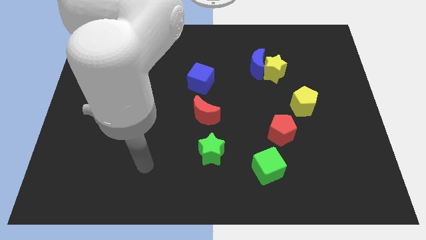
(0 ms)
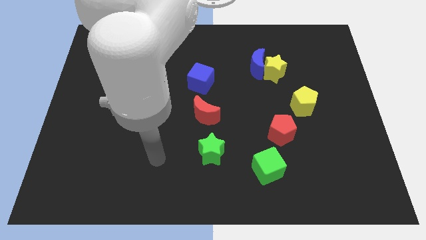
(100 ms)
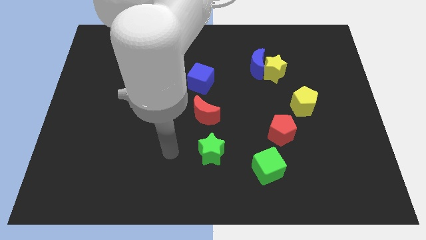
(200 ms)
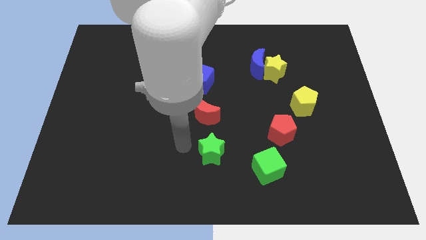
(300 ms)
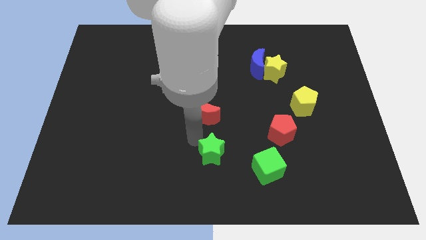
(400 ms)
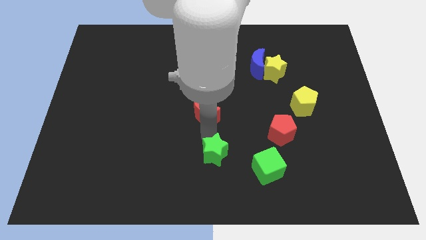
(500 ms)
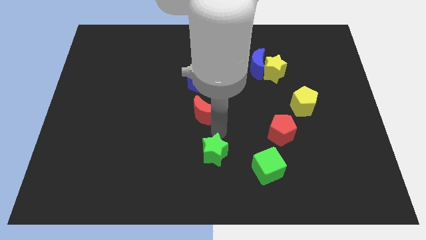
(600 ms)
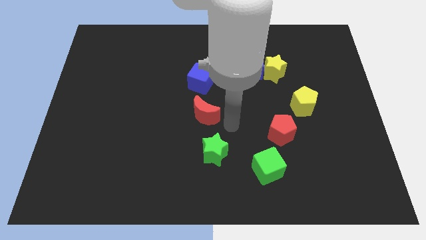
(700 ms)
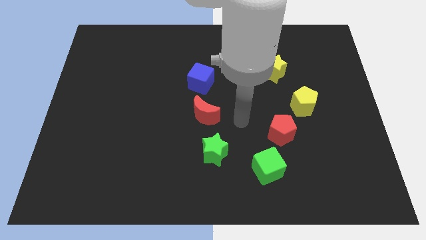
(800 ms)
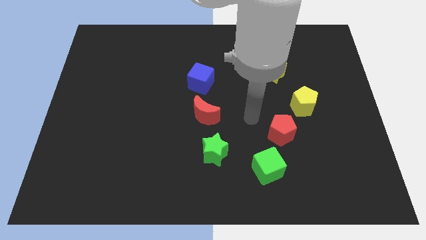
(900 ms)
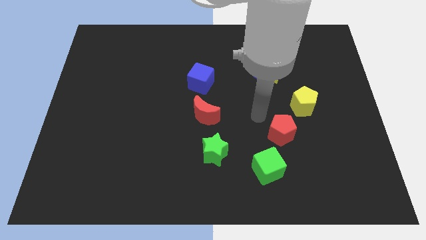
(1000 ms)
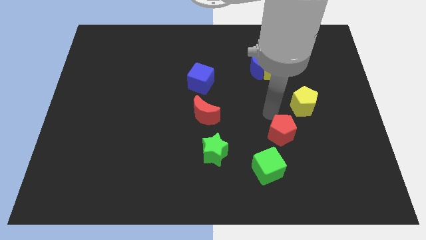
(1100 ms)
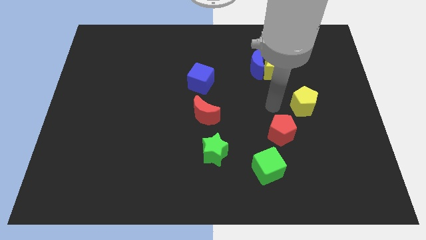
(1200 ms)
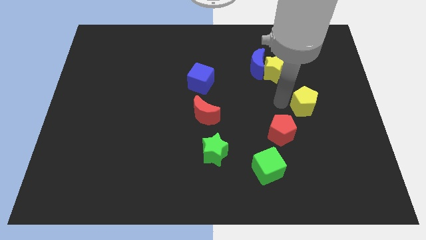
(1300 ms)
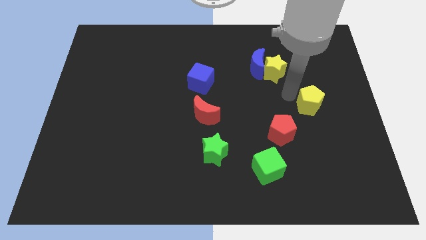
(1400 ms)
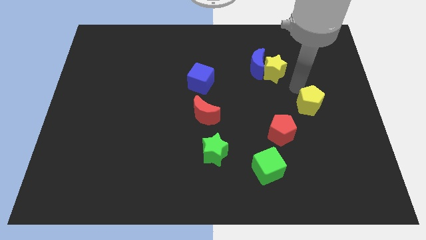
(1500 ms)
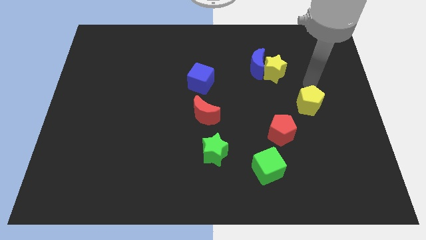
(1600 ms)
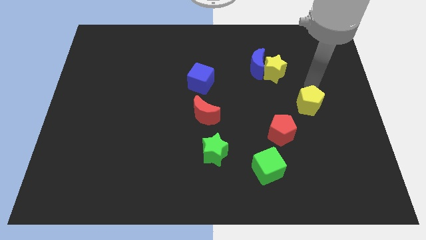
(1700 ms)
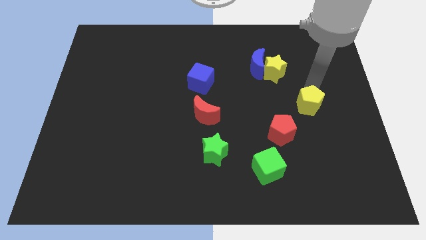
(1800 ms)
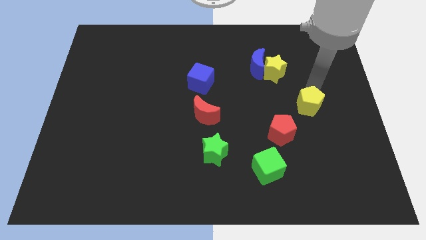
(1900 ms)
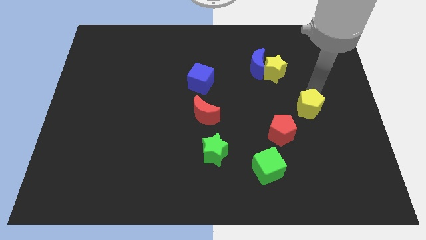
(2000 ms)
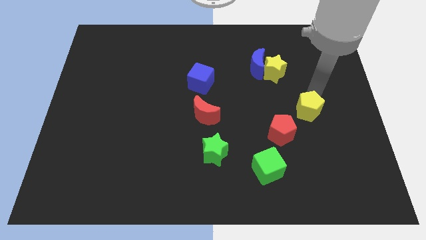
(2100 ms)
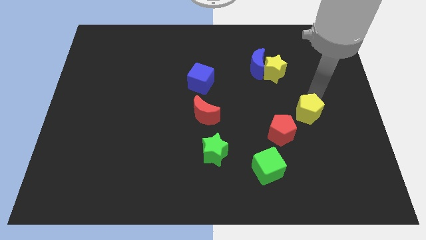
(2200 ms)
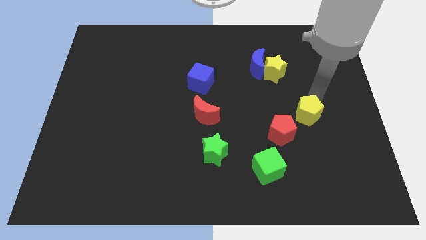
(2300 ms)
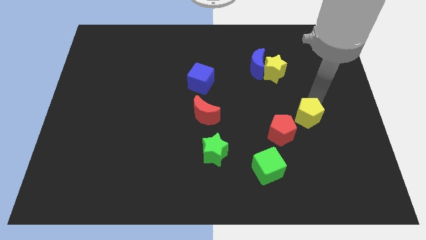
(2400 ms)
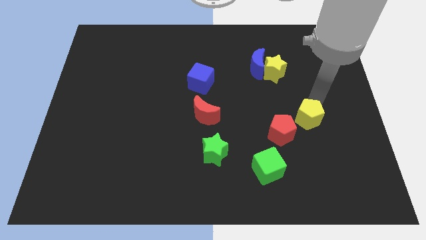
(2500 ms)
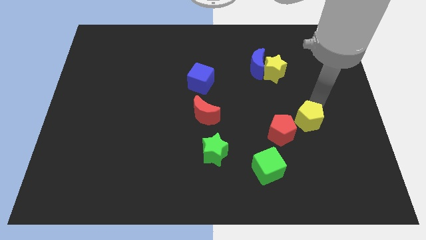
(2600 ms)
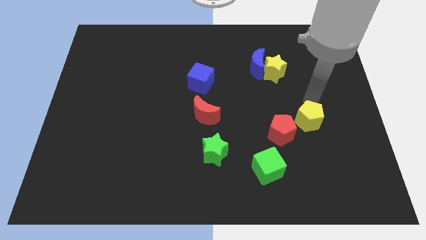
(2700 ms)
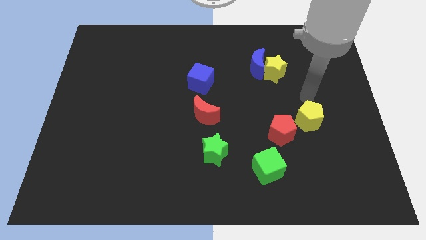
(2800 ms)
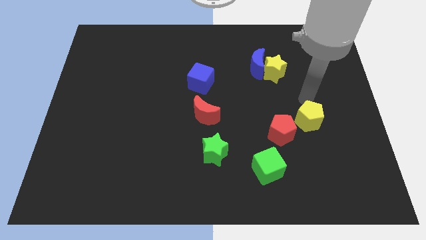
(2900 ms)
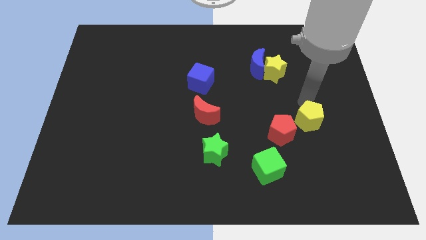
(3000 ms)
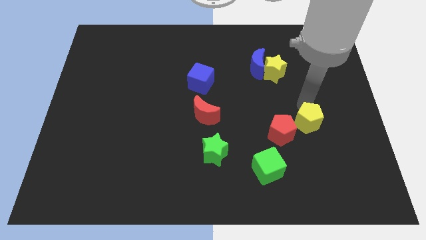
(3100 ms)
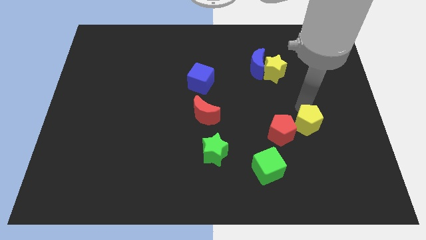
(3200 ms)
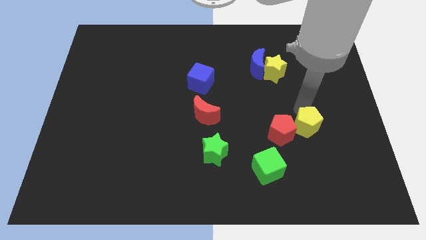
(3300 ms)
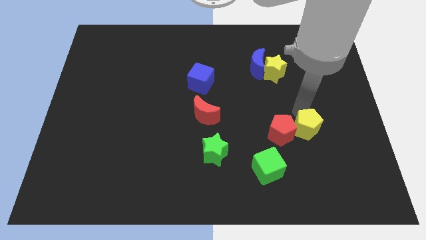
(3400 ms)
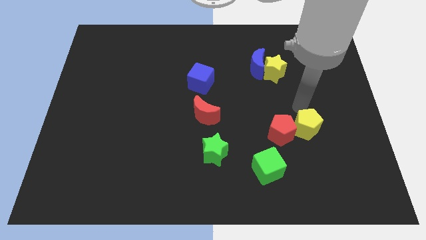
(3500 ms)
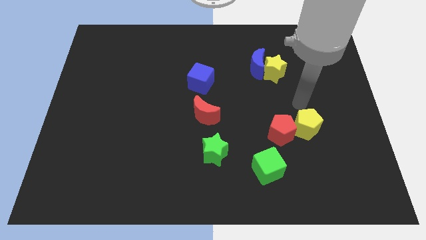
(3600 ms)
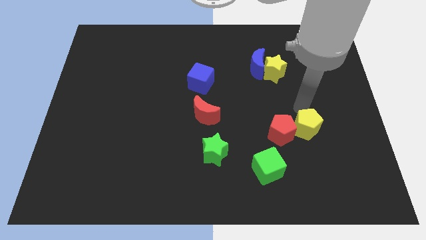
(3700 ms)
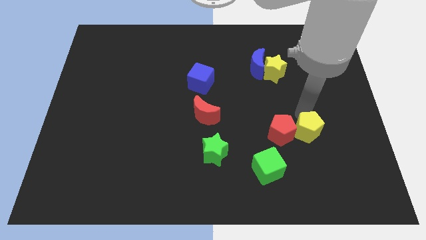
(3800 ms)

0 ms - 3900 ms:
slightly move the yellow pentagon down

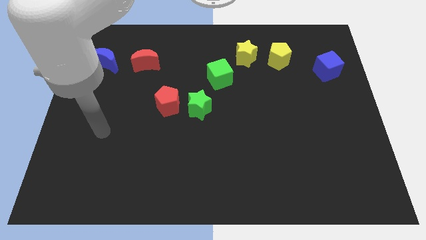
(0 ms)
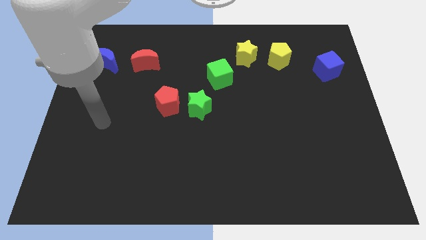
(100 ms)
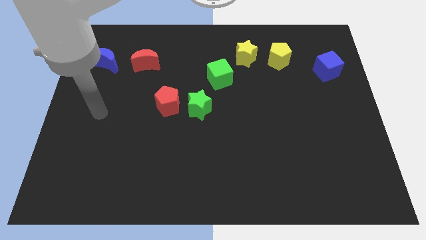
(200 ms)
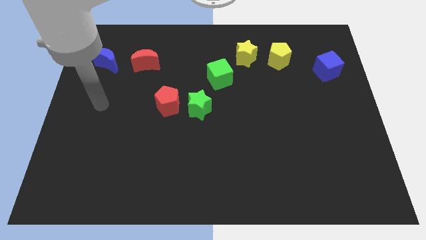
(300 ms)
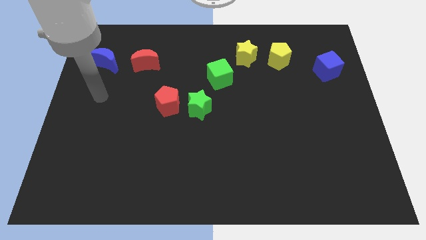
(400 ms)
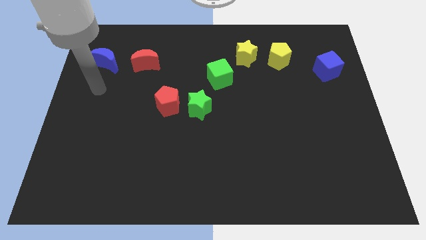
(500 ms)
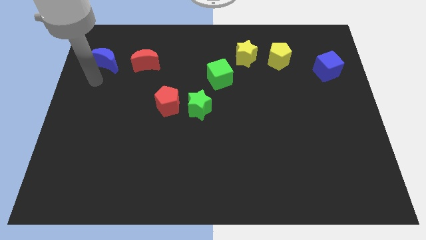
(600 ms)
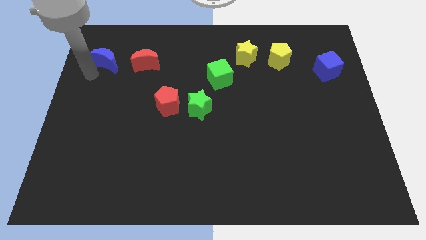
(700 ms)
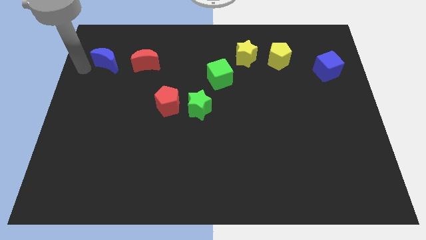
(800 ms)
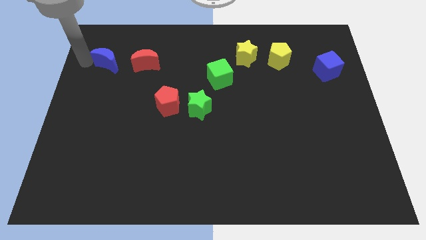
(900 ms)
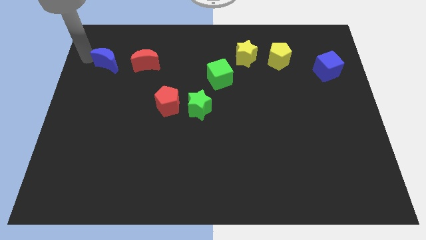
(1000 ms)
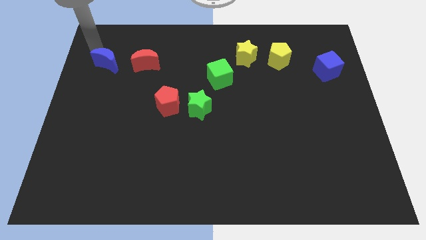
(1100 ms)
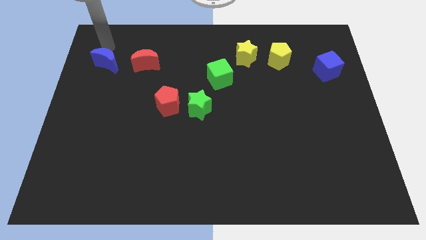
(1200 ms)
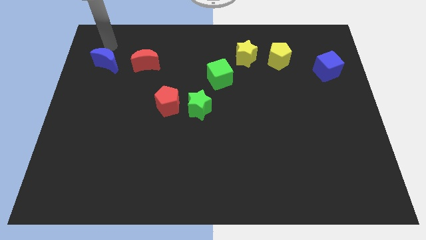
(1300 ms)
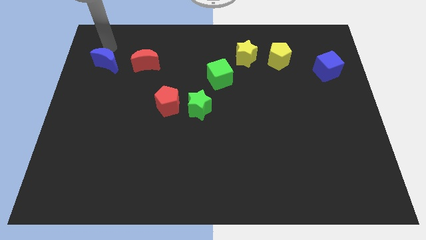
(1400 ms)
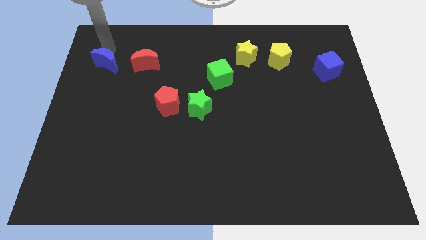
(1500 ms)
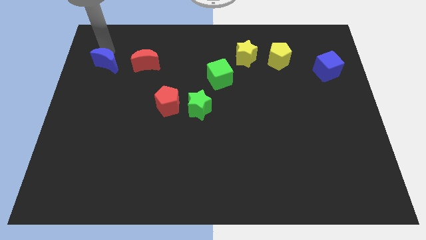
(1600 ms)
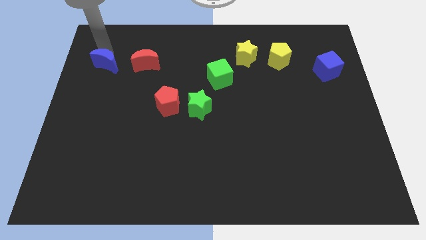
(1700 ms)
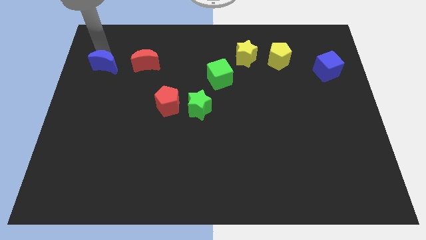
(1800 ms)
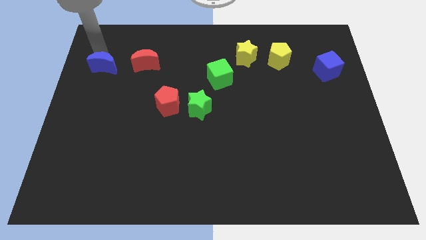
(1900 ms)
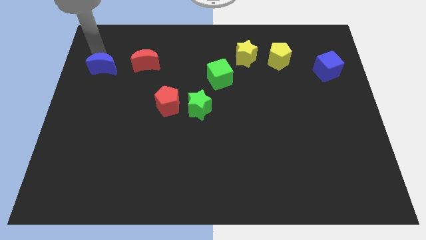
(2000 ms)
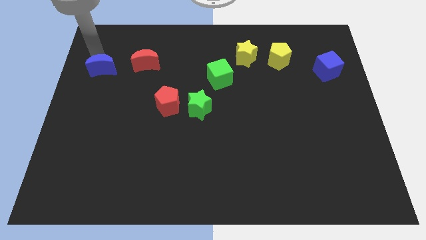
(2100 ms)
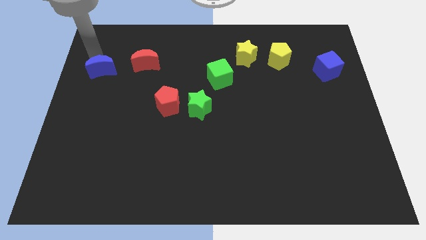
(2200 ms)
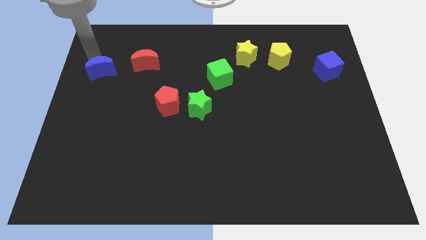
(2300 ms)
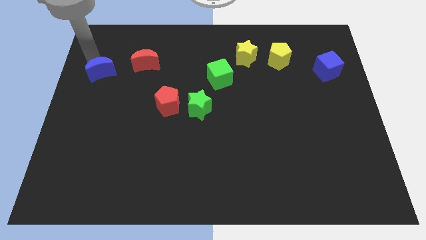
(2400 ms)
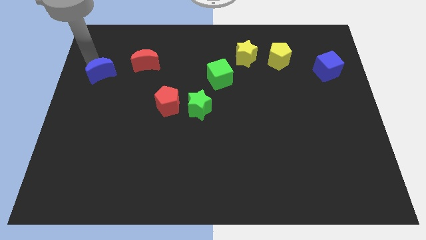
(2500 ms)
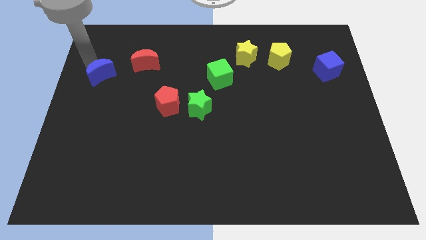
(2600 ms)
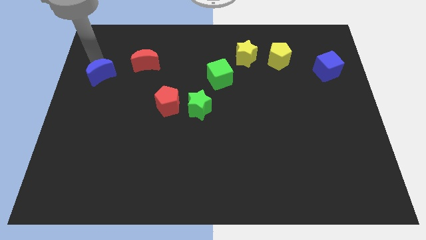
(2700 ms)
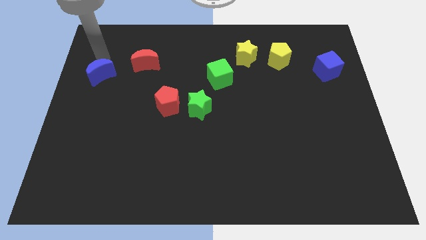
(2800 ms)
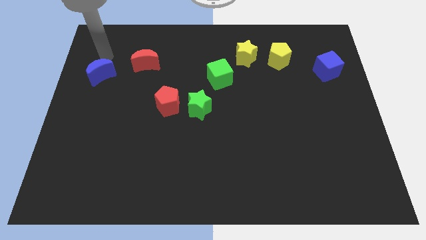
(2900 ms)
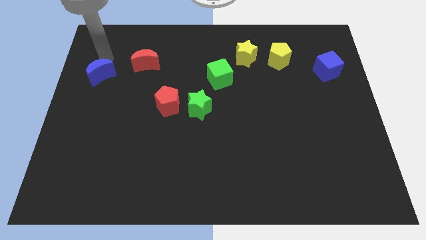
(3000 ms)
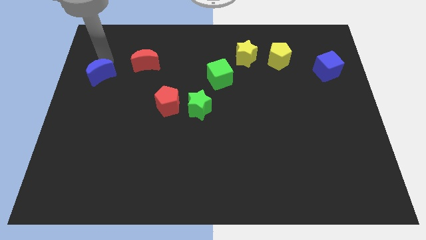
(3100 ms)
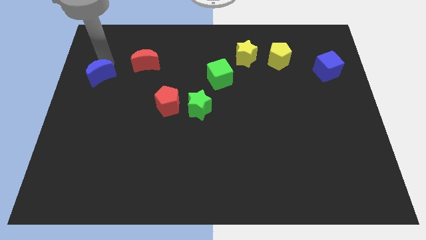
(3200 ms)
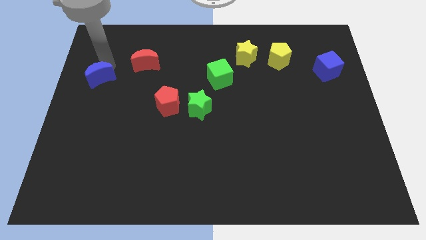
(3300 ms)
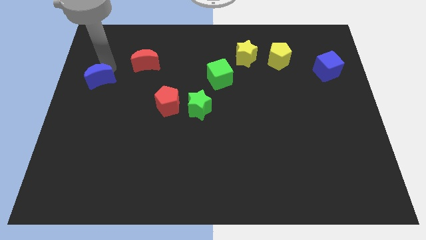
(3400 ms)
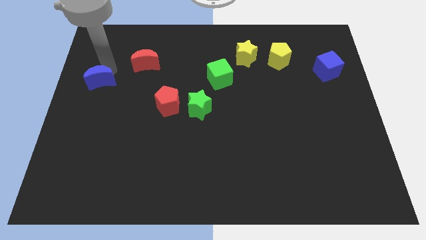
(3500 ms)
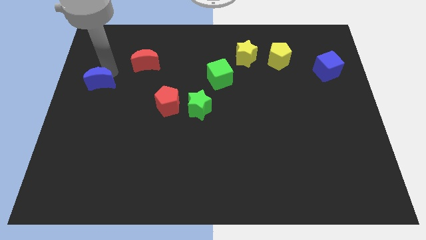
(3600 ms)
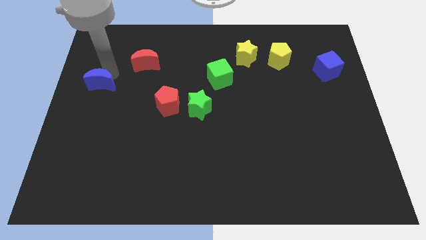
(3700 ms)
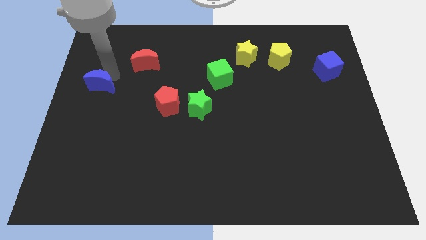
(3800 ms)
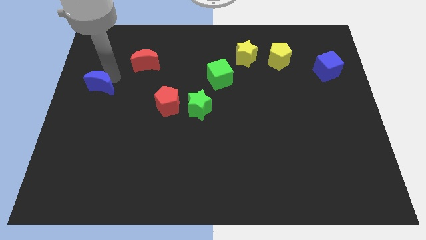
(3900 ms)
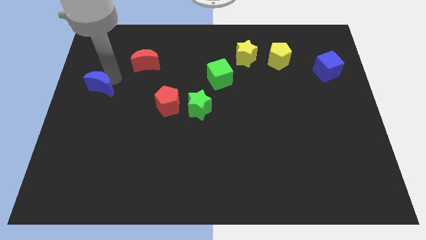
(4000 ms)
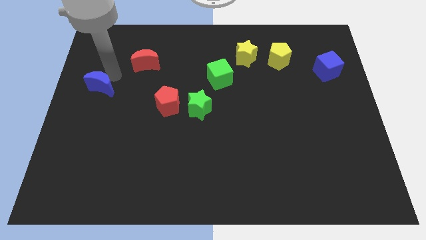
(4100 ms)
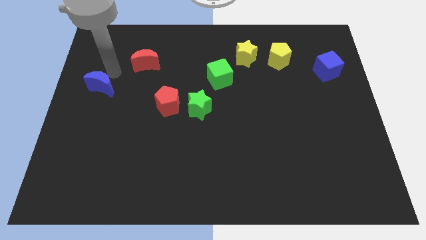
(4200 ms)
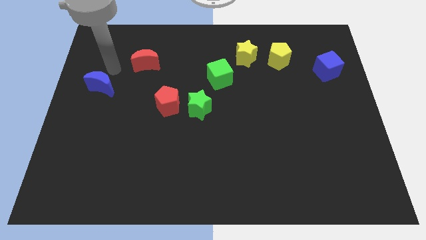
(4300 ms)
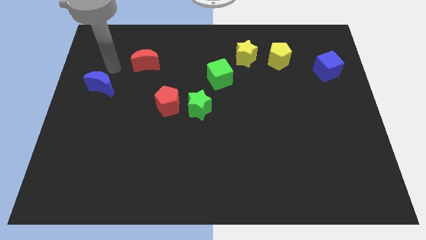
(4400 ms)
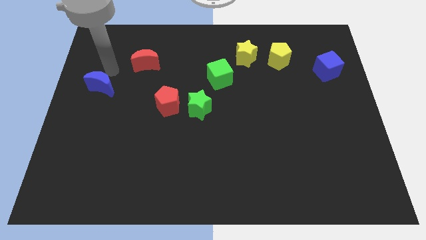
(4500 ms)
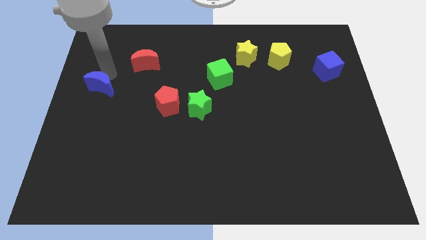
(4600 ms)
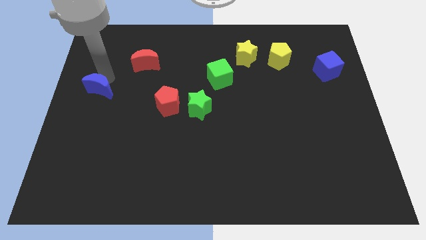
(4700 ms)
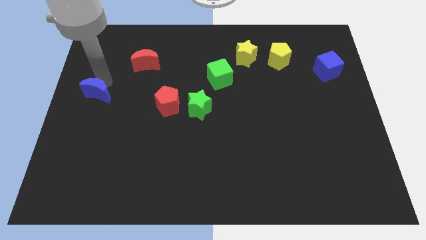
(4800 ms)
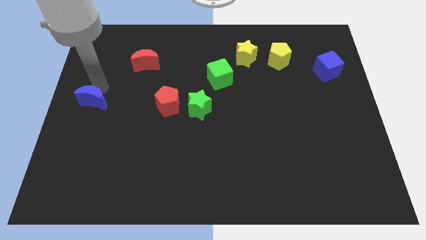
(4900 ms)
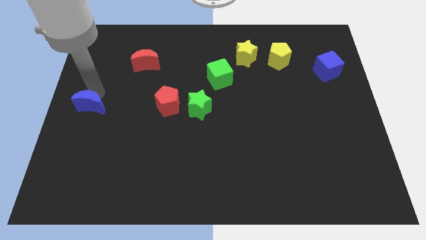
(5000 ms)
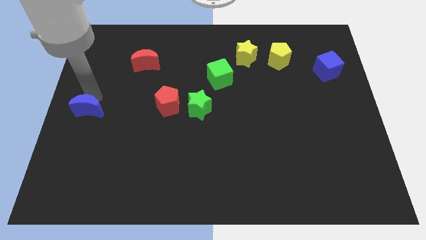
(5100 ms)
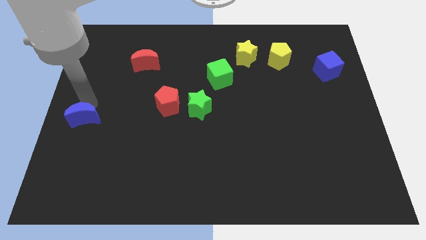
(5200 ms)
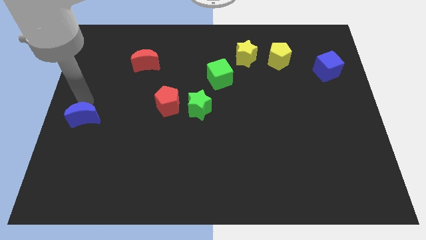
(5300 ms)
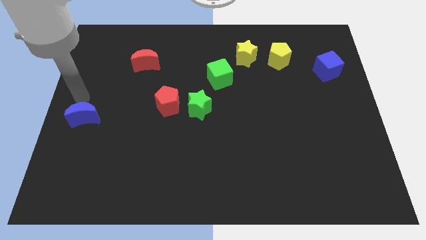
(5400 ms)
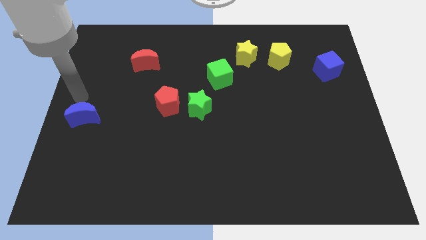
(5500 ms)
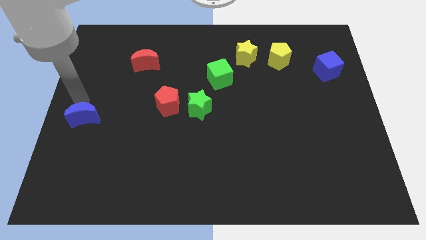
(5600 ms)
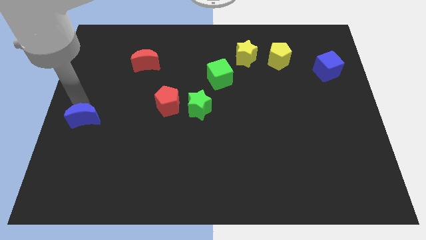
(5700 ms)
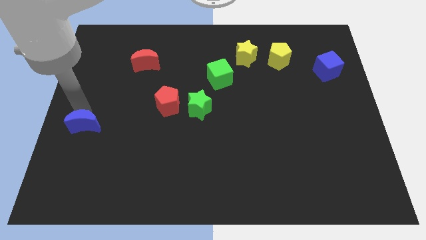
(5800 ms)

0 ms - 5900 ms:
push the blue moon downwards
